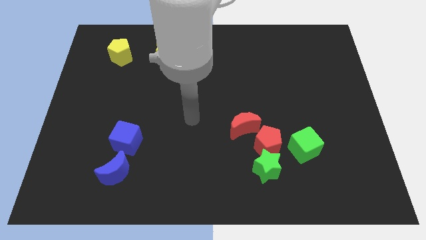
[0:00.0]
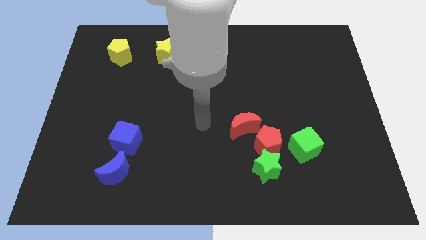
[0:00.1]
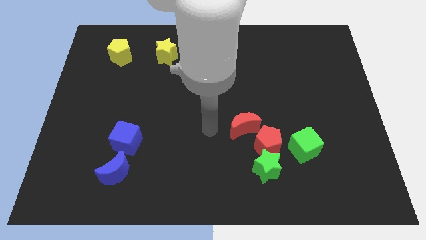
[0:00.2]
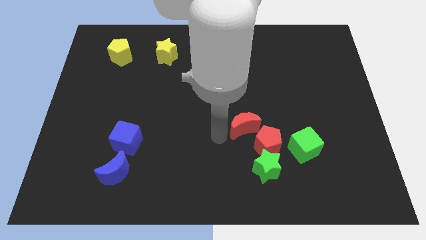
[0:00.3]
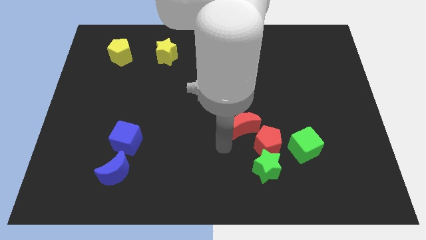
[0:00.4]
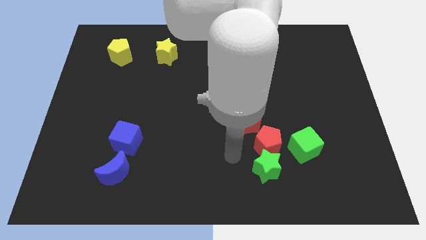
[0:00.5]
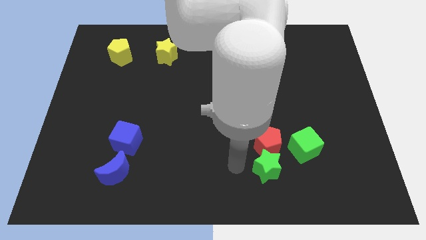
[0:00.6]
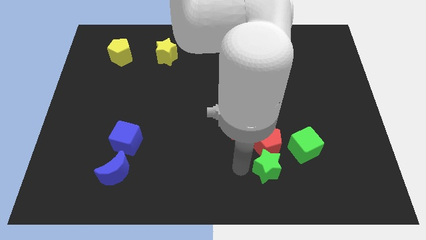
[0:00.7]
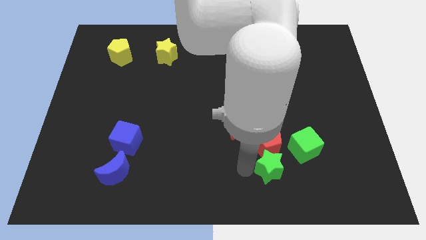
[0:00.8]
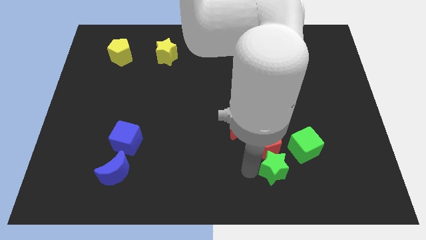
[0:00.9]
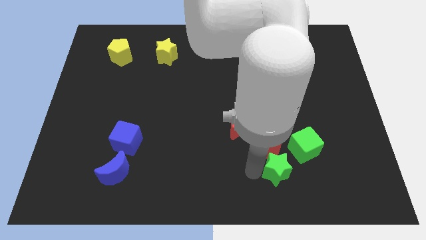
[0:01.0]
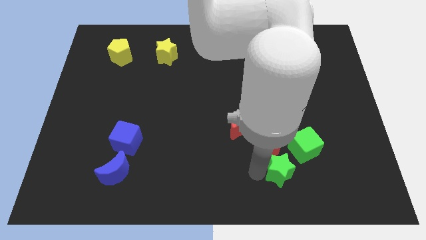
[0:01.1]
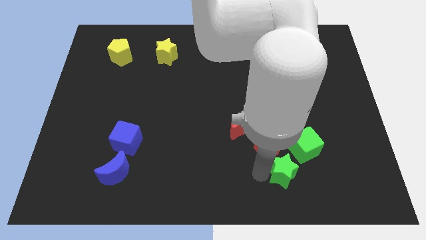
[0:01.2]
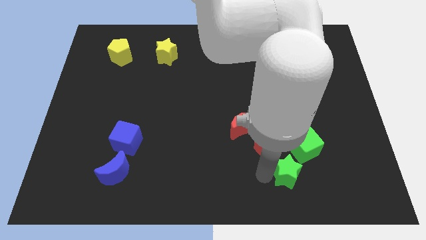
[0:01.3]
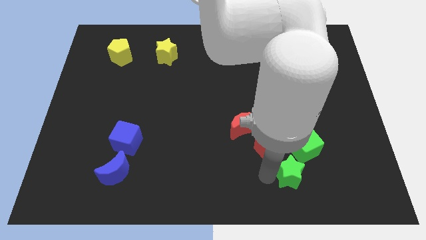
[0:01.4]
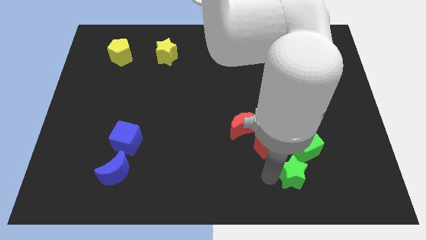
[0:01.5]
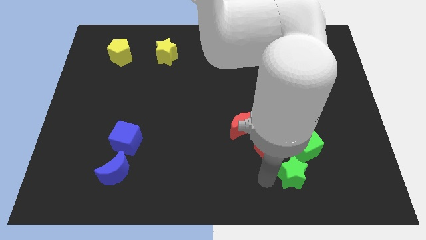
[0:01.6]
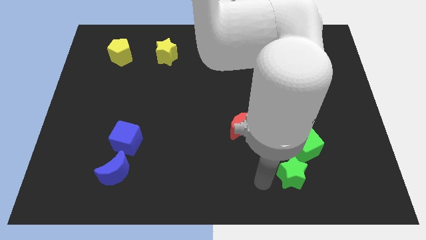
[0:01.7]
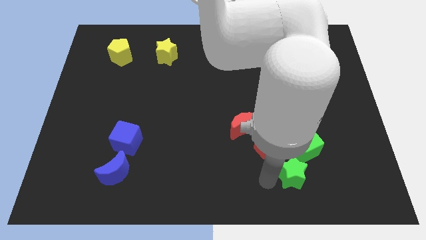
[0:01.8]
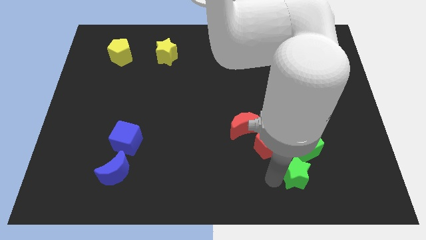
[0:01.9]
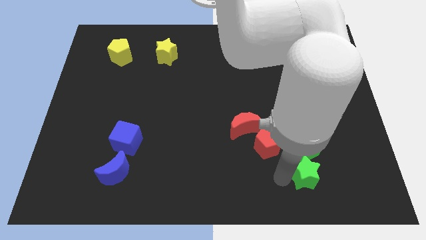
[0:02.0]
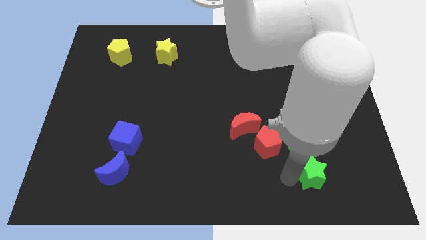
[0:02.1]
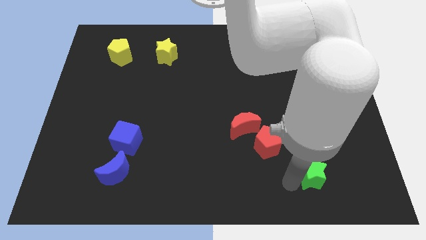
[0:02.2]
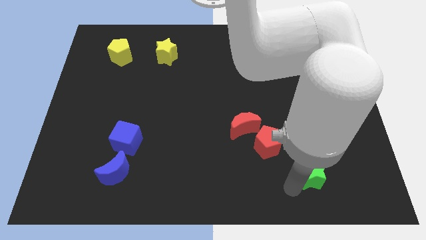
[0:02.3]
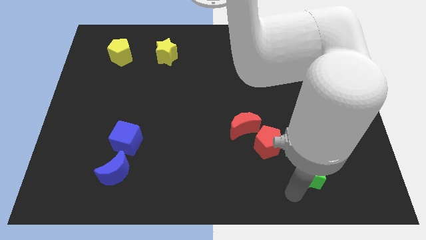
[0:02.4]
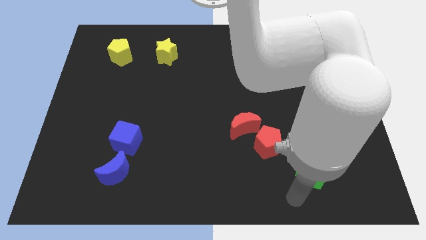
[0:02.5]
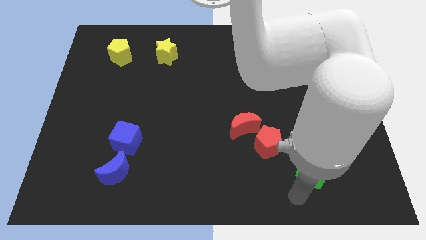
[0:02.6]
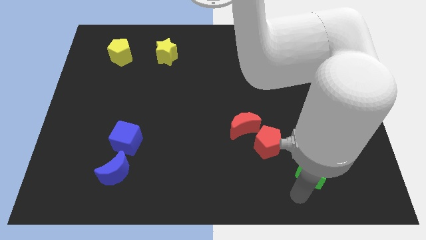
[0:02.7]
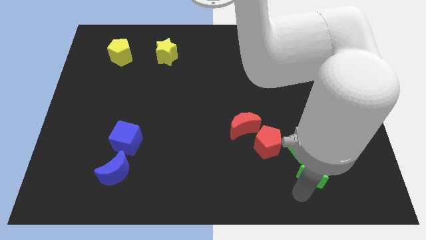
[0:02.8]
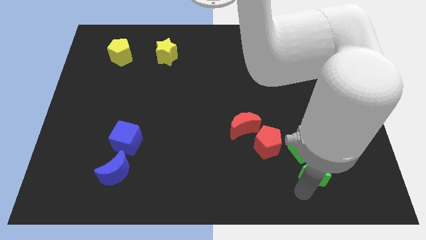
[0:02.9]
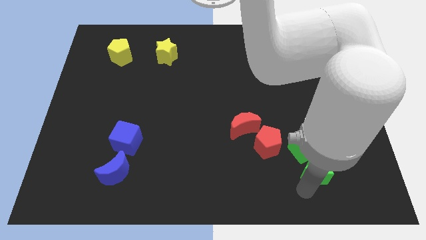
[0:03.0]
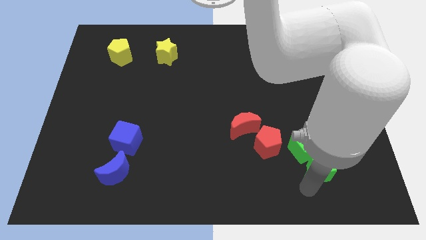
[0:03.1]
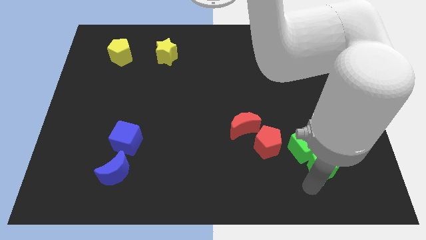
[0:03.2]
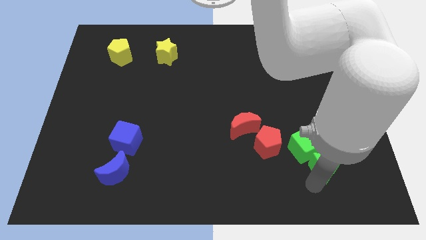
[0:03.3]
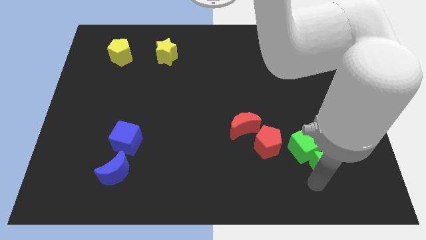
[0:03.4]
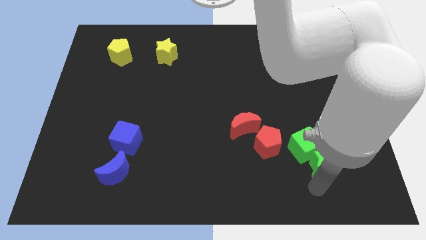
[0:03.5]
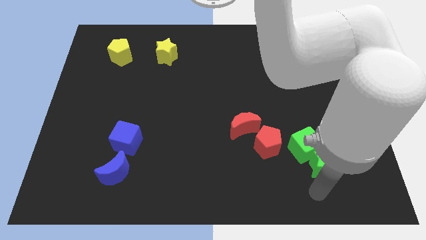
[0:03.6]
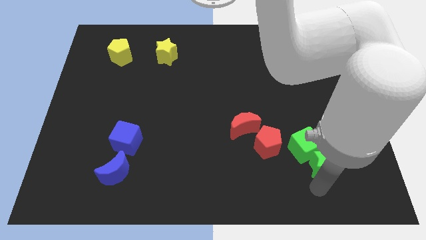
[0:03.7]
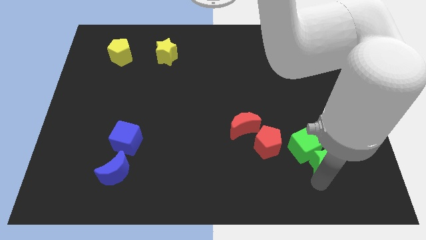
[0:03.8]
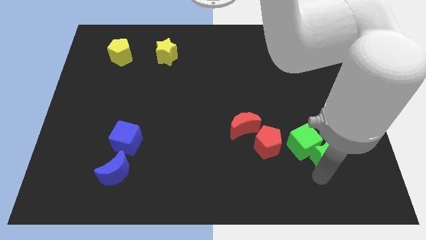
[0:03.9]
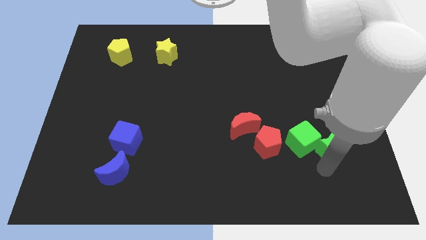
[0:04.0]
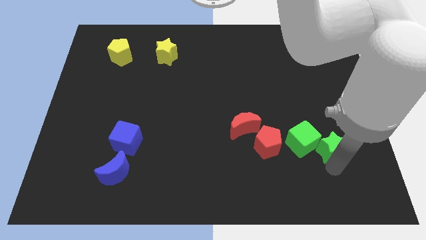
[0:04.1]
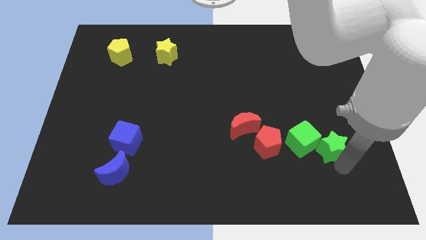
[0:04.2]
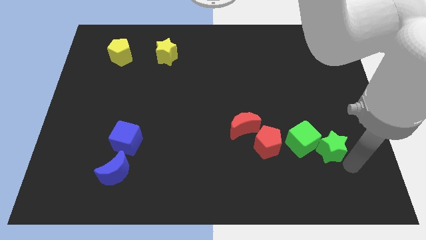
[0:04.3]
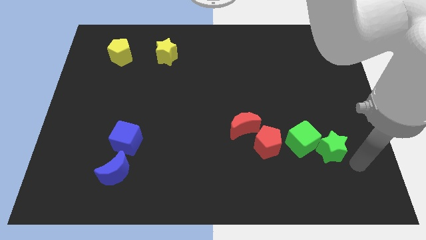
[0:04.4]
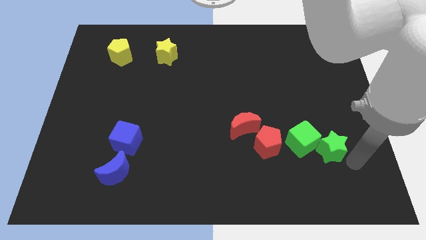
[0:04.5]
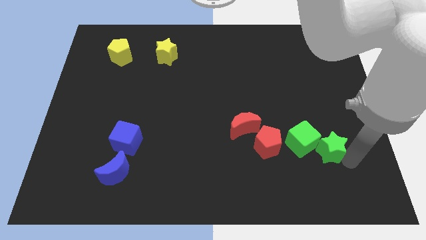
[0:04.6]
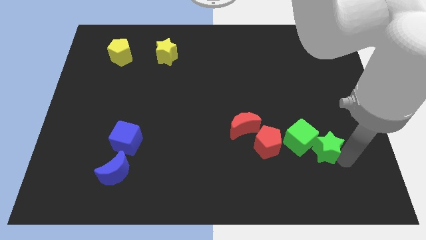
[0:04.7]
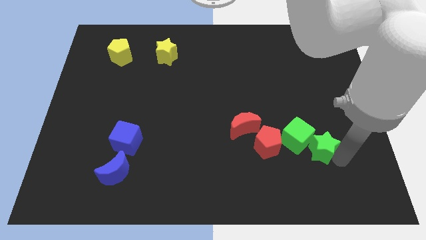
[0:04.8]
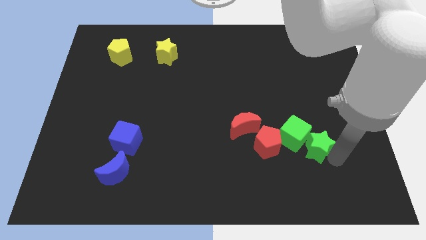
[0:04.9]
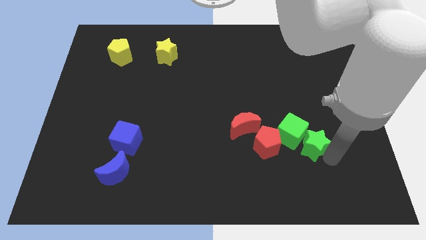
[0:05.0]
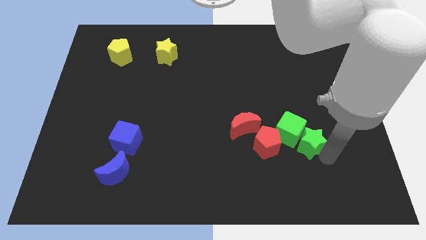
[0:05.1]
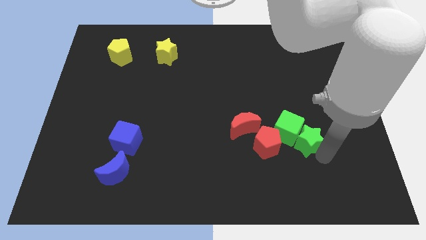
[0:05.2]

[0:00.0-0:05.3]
slide the green star to the right of the red moon

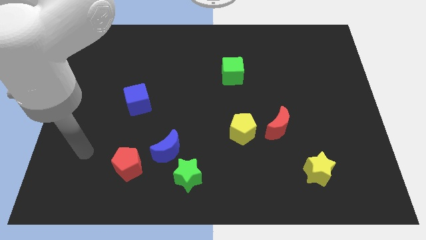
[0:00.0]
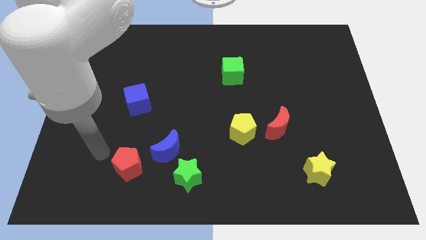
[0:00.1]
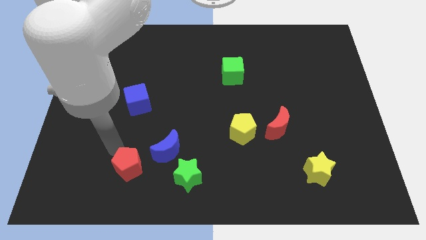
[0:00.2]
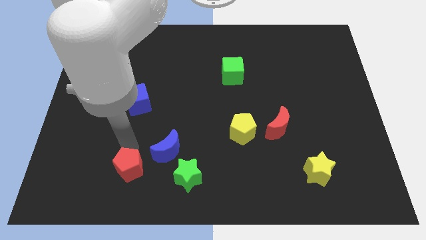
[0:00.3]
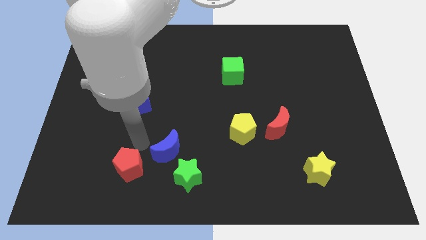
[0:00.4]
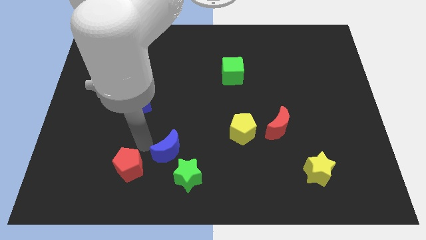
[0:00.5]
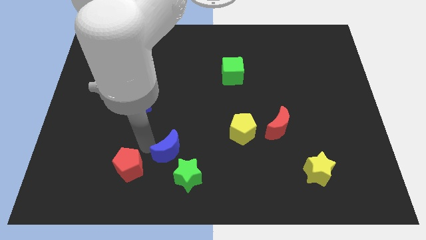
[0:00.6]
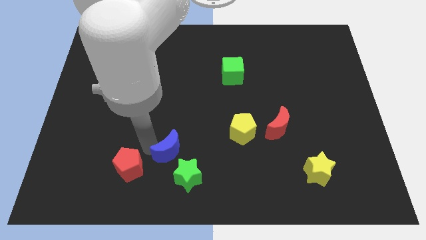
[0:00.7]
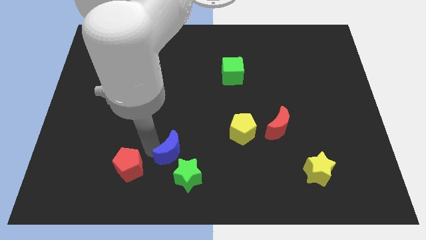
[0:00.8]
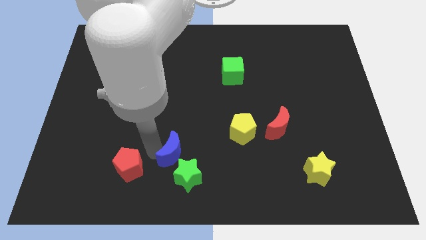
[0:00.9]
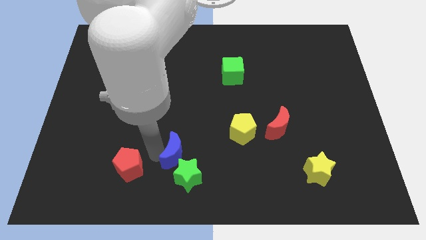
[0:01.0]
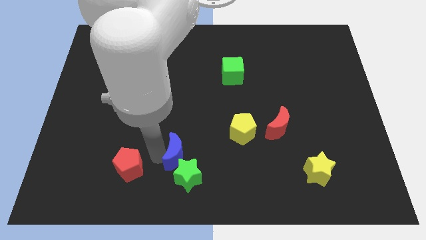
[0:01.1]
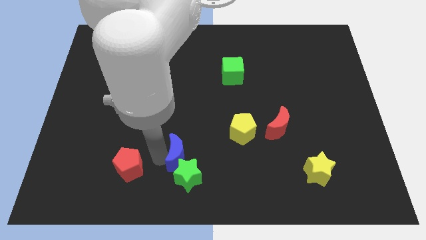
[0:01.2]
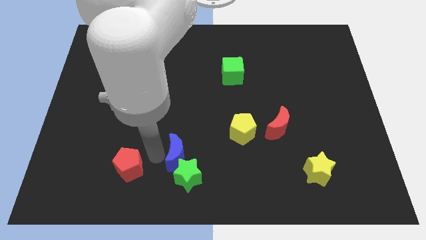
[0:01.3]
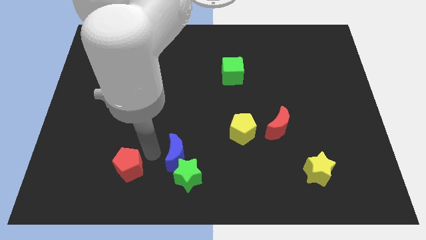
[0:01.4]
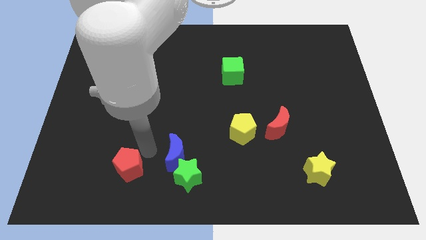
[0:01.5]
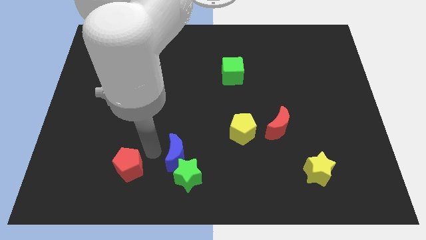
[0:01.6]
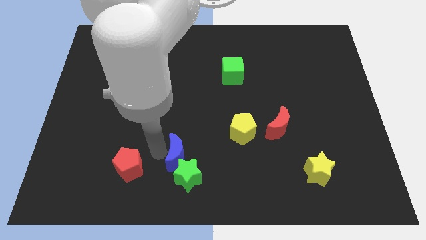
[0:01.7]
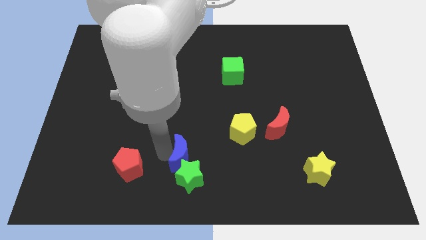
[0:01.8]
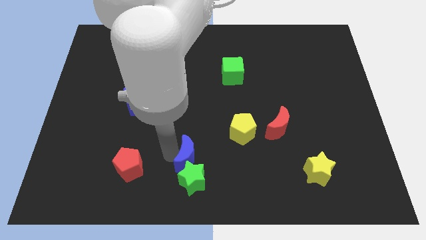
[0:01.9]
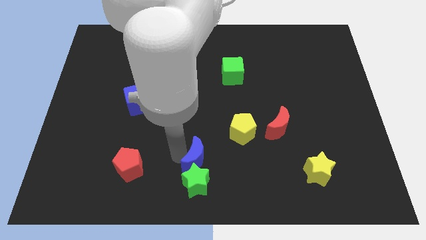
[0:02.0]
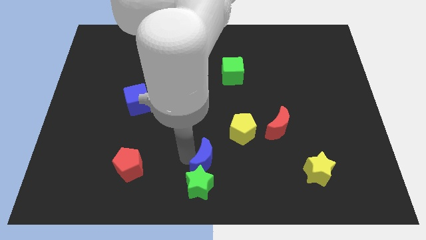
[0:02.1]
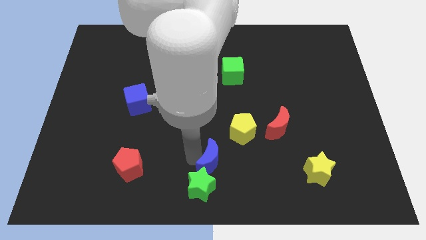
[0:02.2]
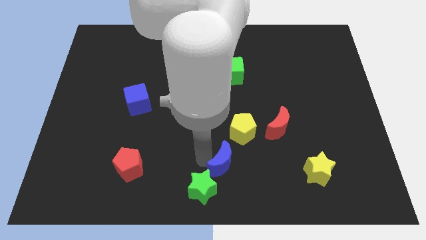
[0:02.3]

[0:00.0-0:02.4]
move the blue moon to the bottom side of the yellow pentagon
